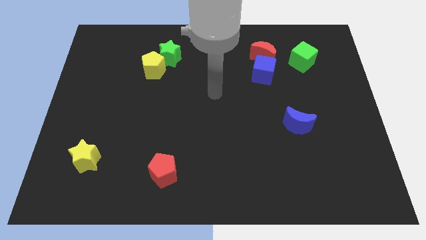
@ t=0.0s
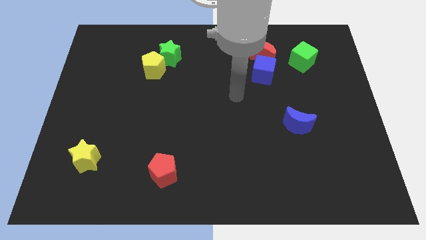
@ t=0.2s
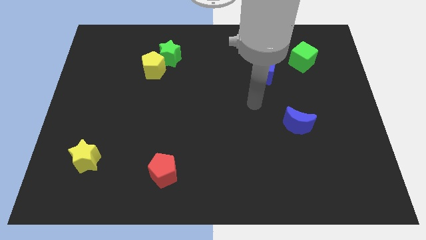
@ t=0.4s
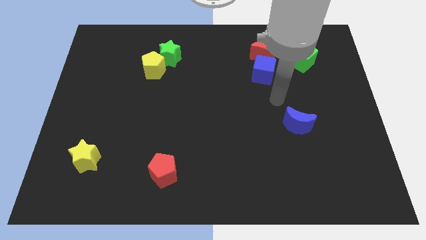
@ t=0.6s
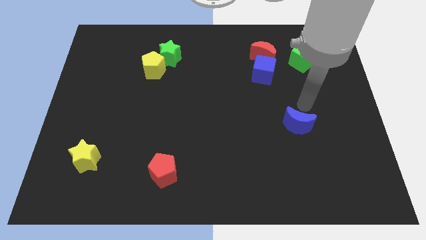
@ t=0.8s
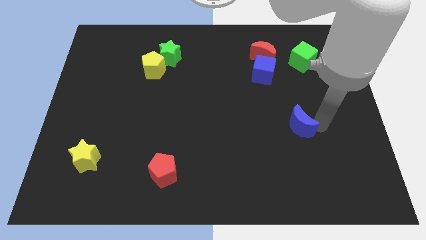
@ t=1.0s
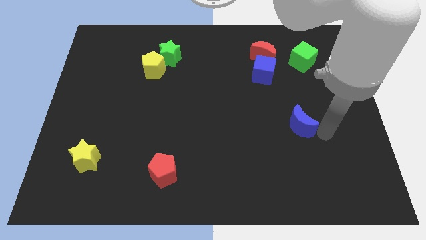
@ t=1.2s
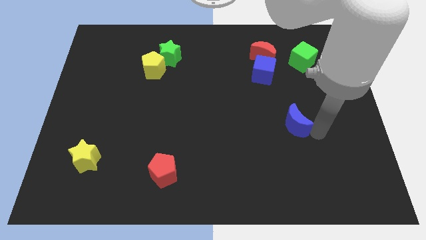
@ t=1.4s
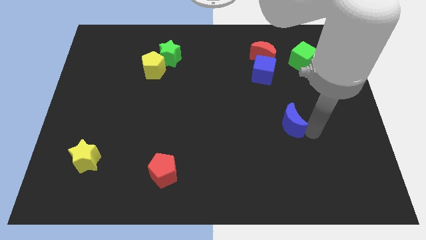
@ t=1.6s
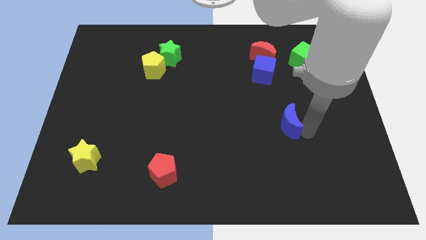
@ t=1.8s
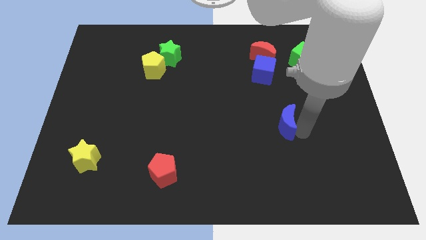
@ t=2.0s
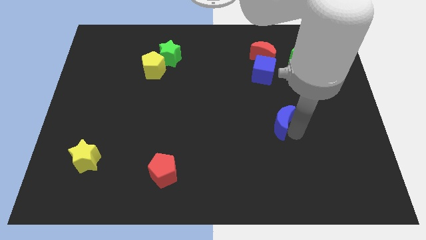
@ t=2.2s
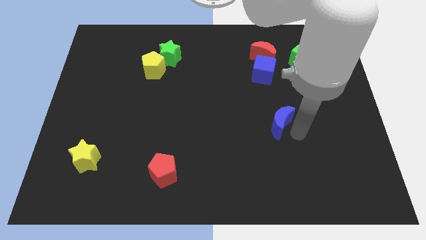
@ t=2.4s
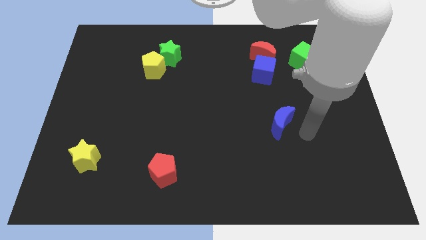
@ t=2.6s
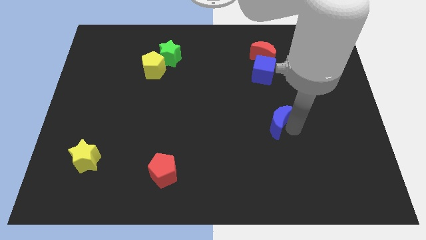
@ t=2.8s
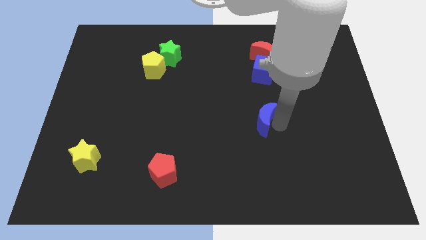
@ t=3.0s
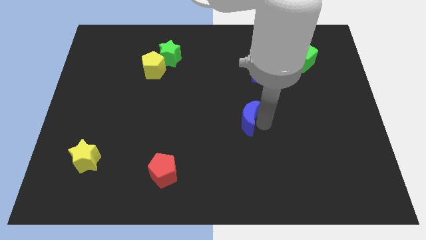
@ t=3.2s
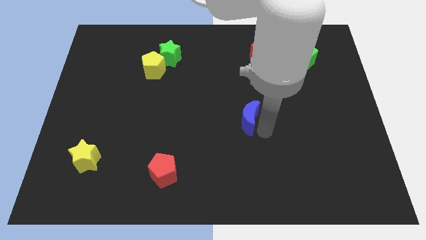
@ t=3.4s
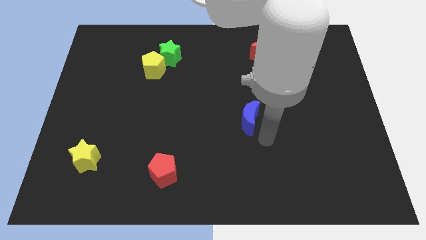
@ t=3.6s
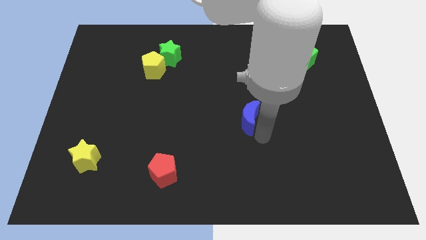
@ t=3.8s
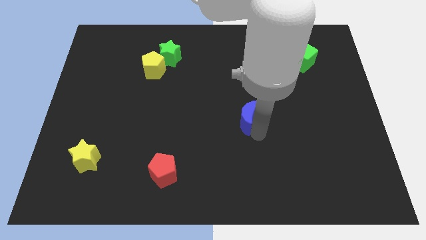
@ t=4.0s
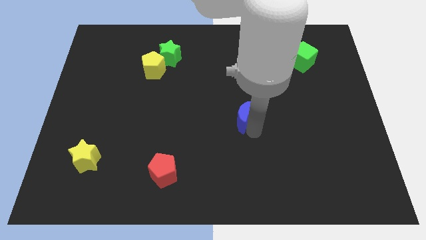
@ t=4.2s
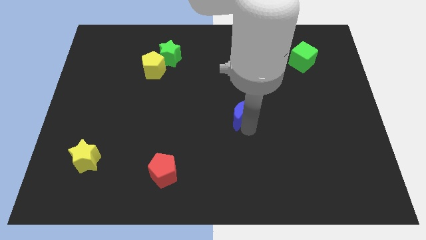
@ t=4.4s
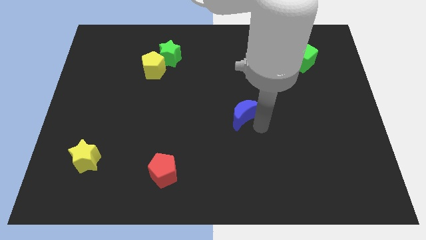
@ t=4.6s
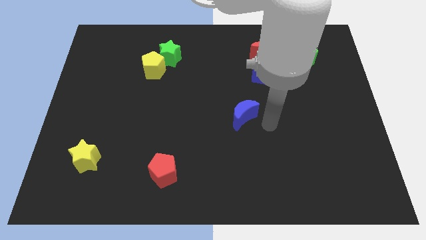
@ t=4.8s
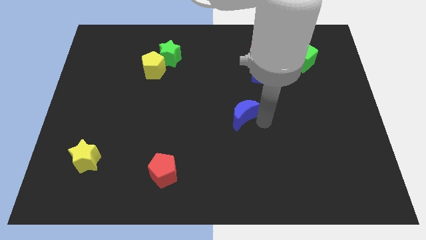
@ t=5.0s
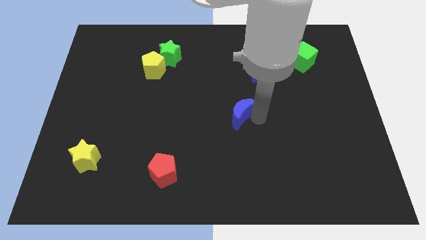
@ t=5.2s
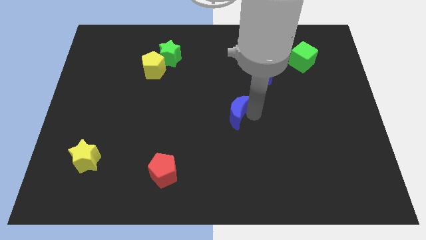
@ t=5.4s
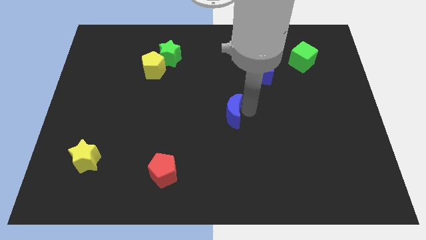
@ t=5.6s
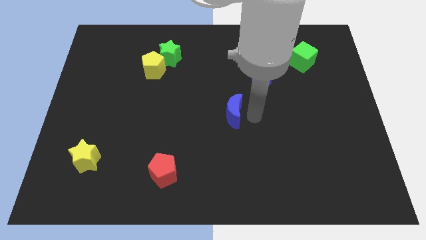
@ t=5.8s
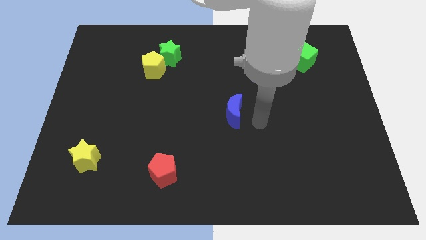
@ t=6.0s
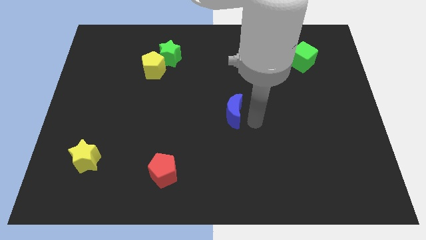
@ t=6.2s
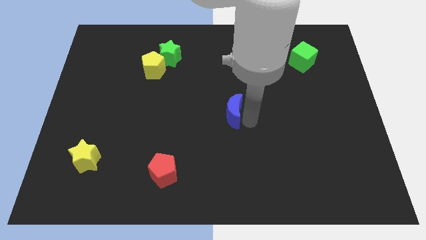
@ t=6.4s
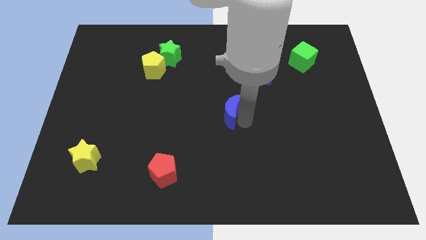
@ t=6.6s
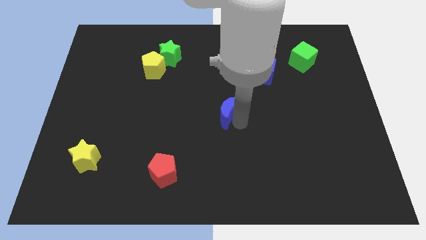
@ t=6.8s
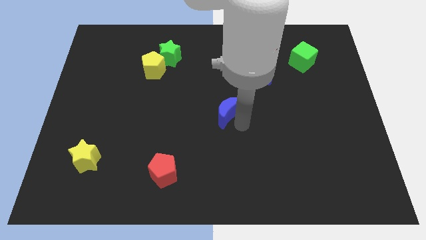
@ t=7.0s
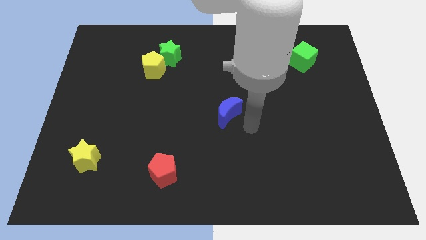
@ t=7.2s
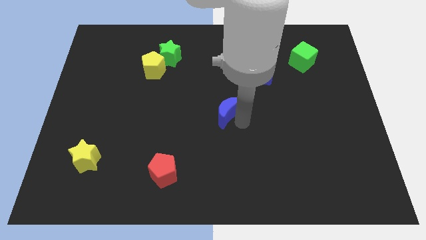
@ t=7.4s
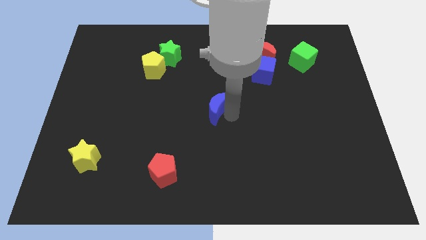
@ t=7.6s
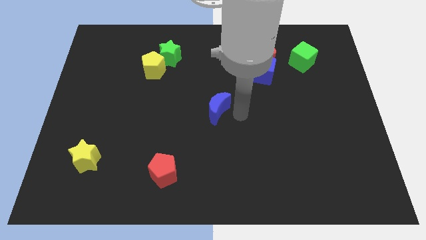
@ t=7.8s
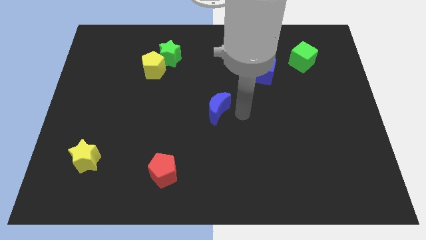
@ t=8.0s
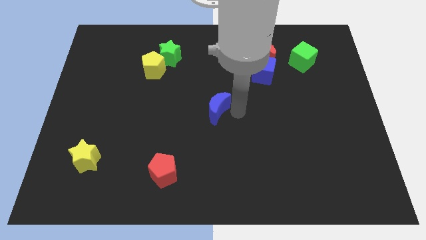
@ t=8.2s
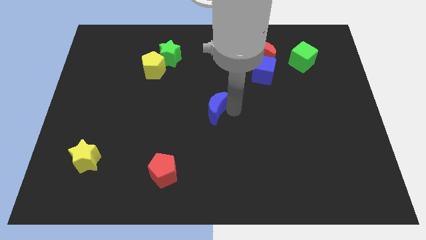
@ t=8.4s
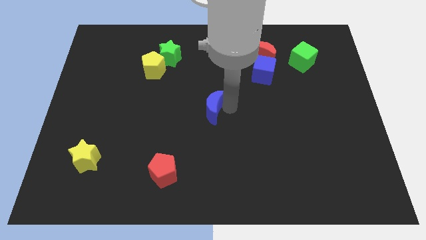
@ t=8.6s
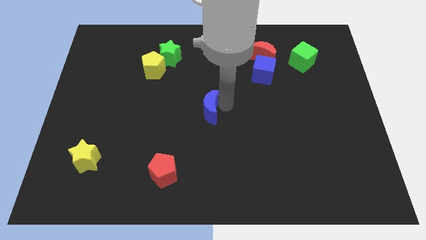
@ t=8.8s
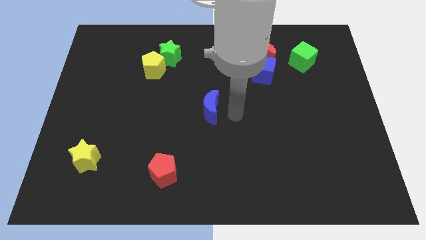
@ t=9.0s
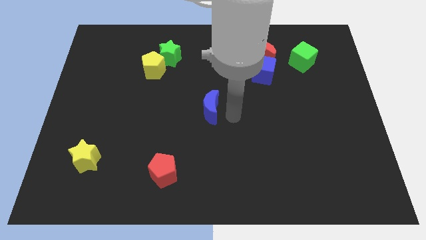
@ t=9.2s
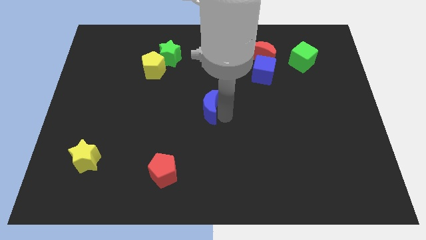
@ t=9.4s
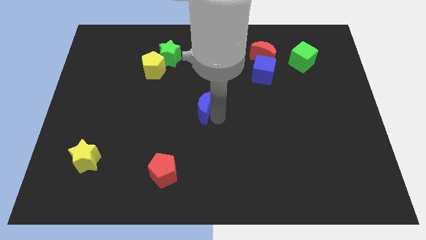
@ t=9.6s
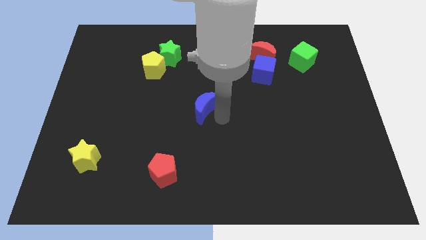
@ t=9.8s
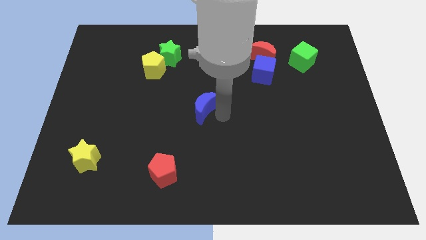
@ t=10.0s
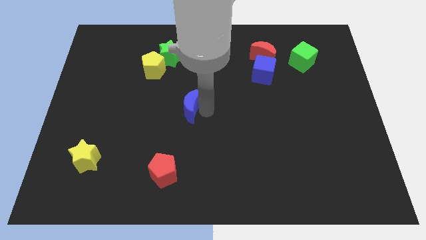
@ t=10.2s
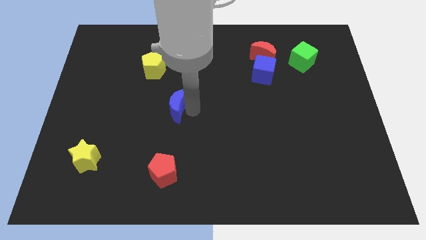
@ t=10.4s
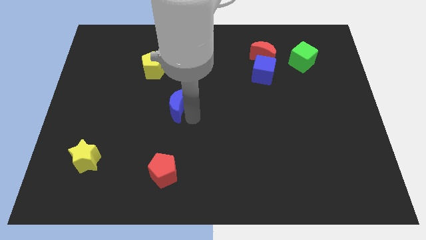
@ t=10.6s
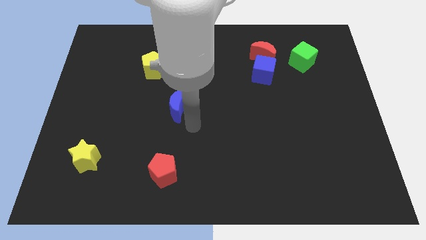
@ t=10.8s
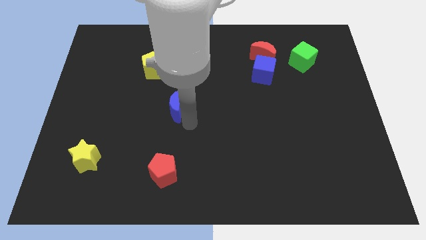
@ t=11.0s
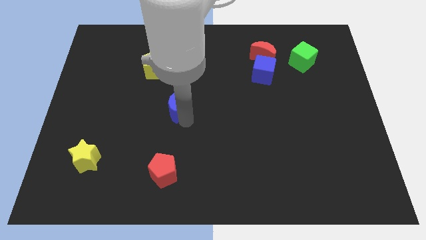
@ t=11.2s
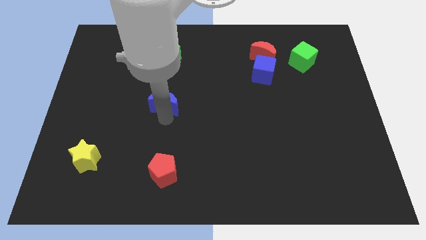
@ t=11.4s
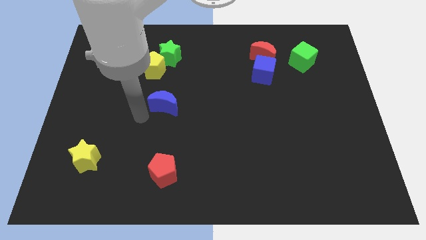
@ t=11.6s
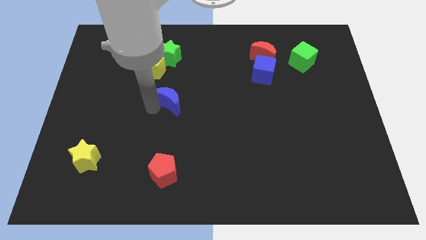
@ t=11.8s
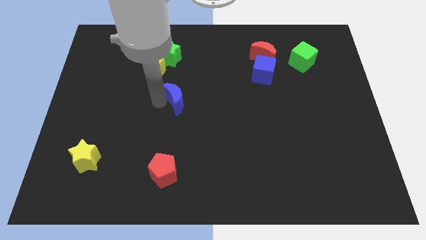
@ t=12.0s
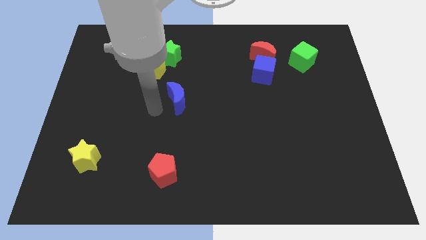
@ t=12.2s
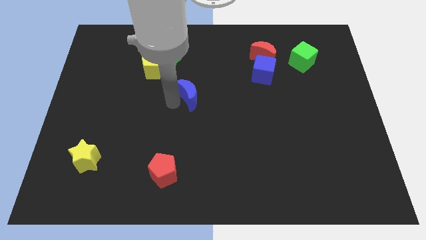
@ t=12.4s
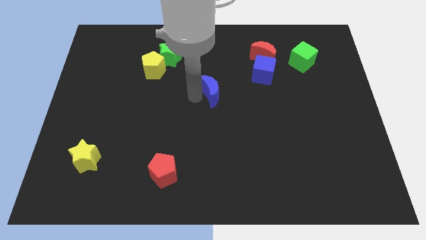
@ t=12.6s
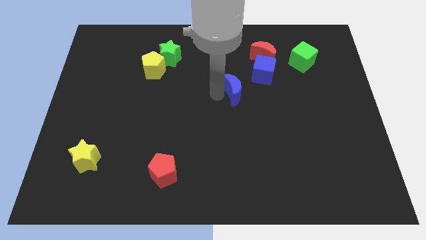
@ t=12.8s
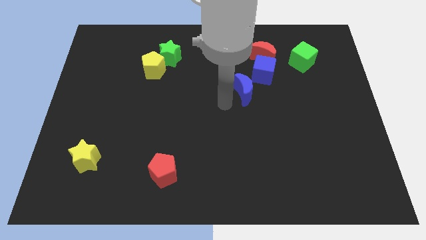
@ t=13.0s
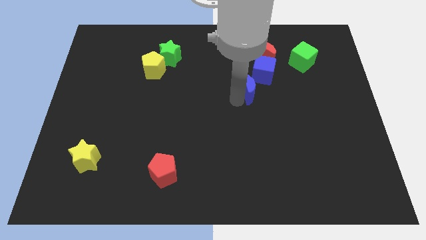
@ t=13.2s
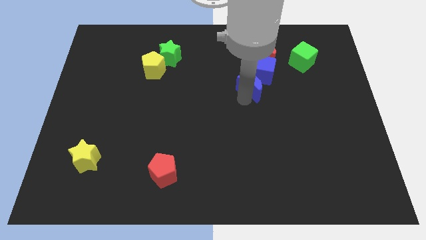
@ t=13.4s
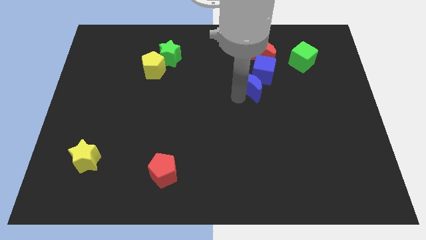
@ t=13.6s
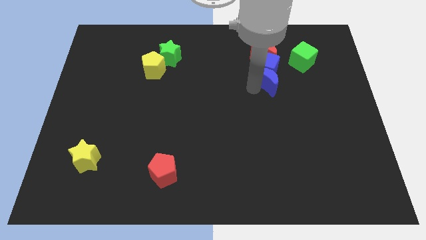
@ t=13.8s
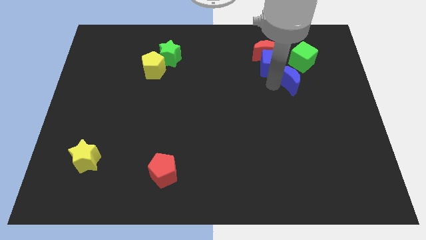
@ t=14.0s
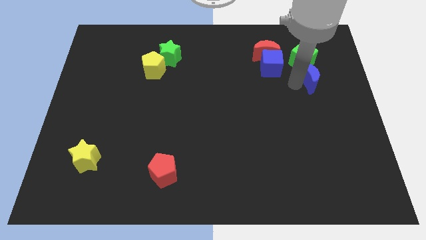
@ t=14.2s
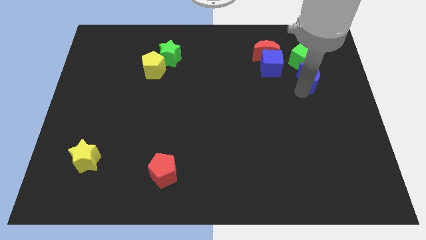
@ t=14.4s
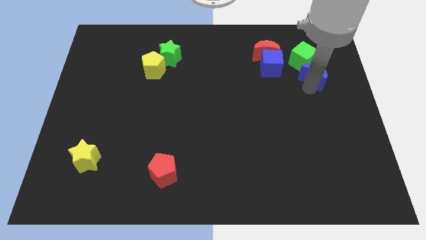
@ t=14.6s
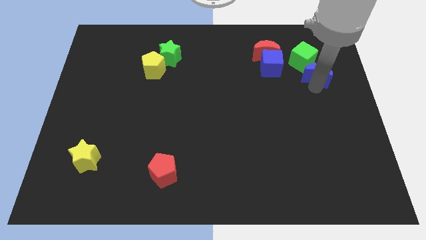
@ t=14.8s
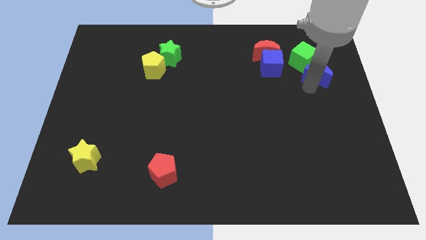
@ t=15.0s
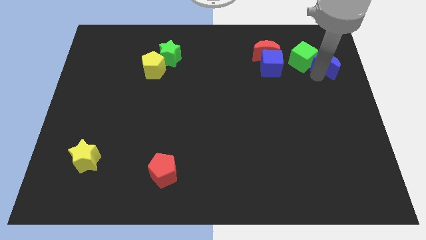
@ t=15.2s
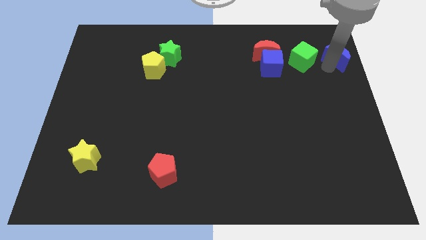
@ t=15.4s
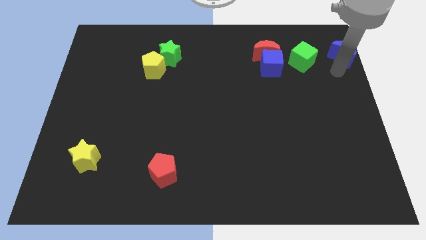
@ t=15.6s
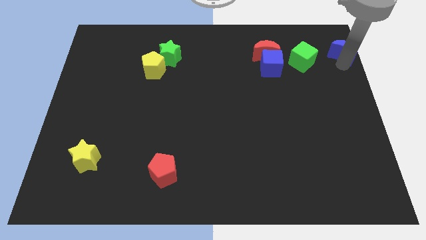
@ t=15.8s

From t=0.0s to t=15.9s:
push the blue moon to the top right corner
